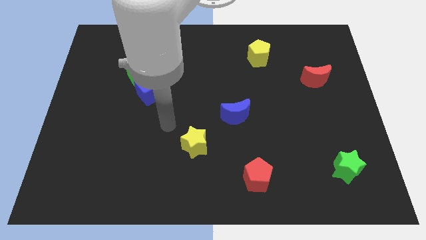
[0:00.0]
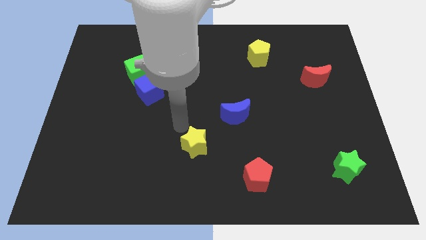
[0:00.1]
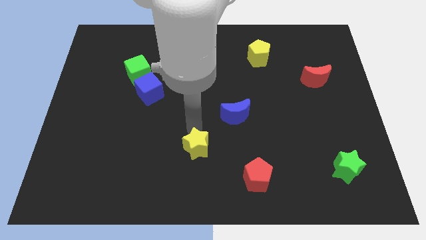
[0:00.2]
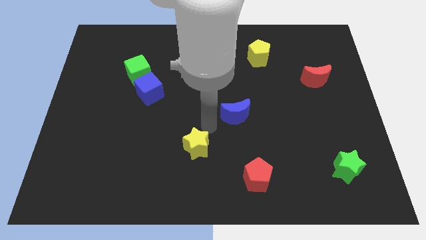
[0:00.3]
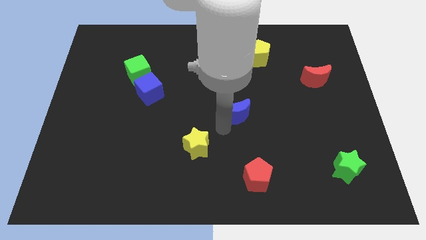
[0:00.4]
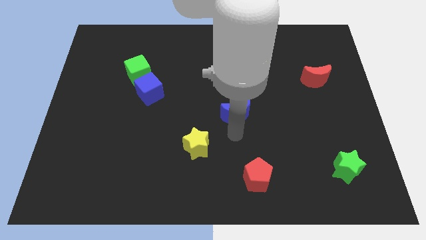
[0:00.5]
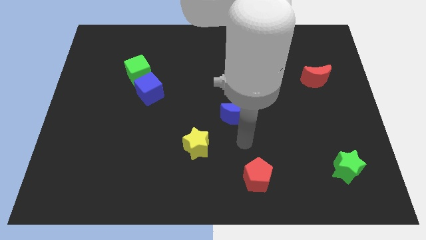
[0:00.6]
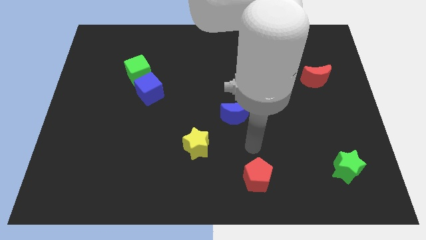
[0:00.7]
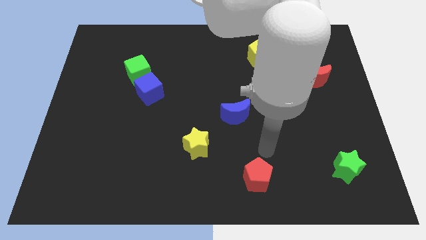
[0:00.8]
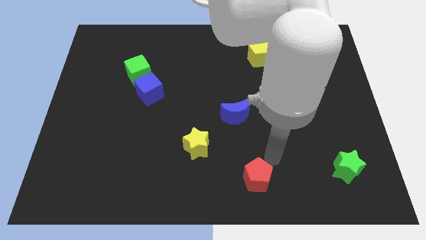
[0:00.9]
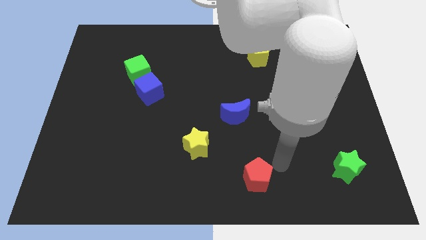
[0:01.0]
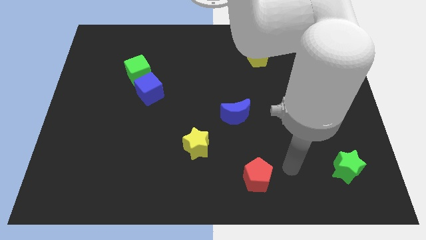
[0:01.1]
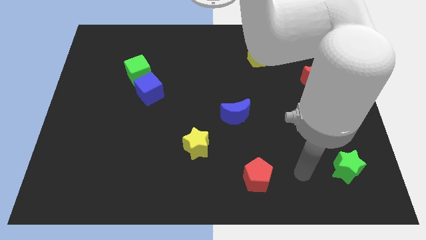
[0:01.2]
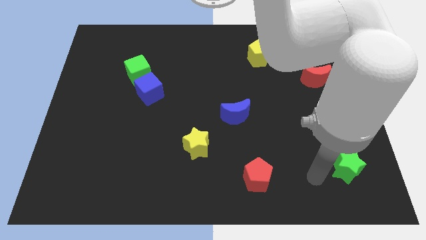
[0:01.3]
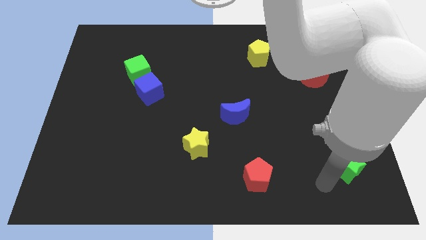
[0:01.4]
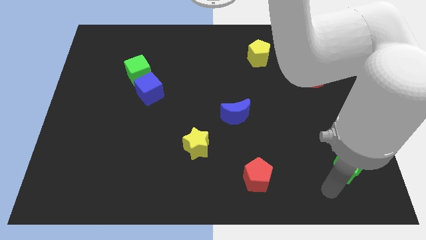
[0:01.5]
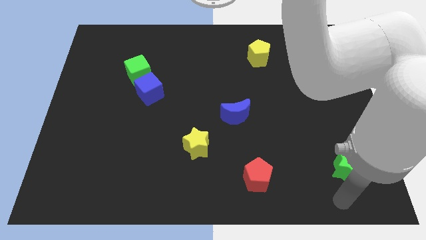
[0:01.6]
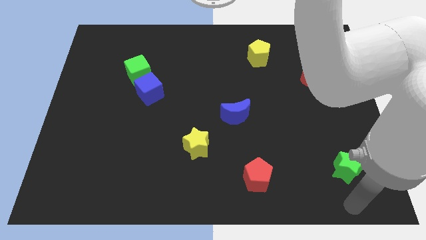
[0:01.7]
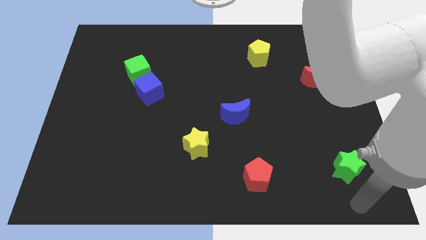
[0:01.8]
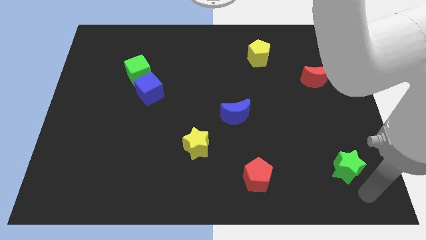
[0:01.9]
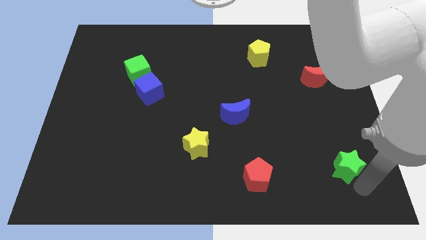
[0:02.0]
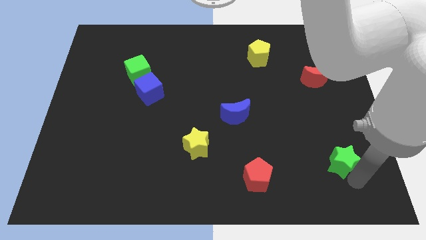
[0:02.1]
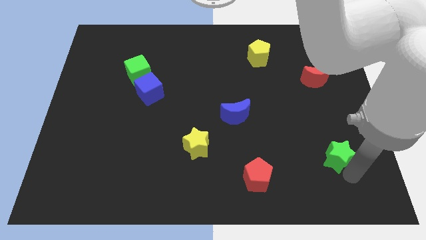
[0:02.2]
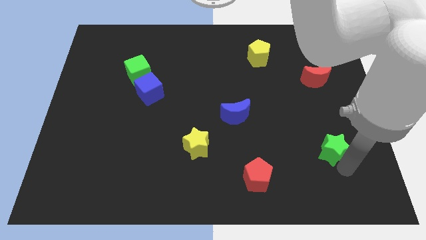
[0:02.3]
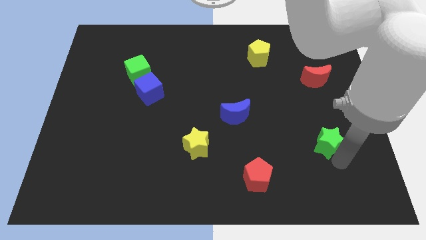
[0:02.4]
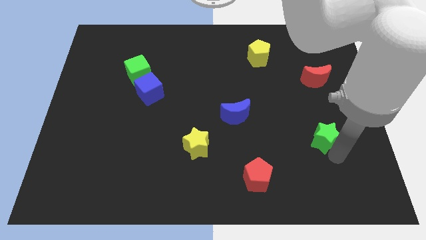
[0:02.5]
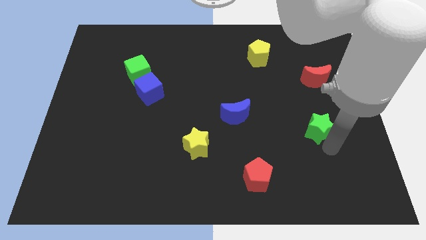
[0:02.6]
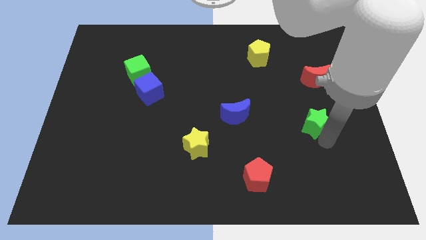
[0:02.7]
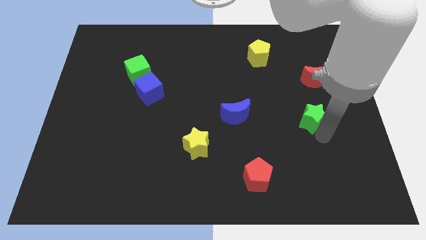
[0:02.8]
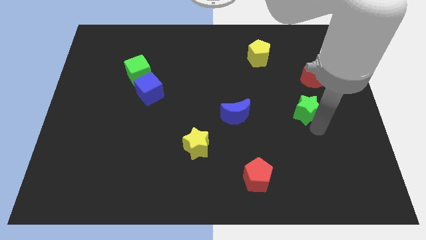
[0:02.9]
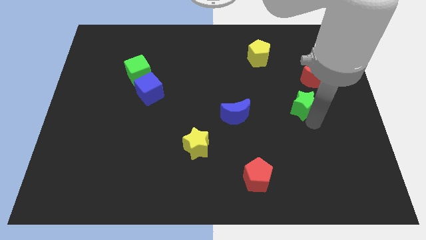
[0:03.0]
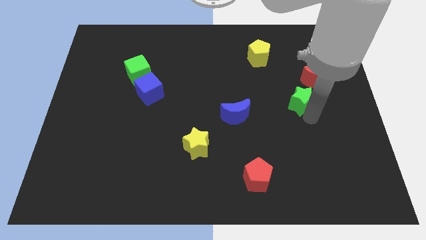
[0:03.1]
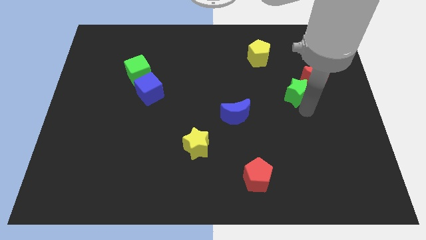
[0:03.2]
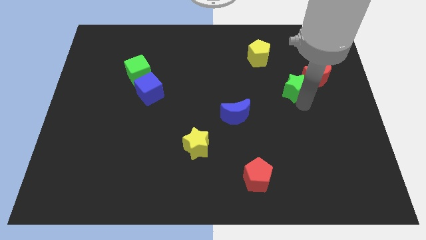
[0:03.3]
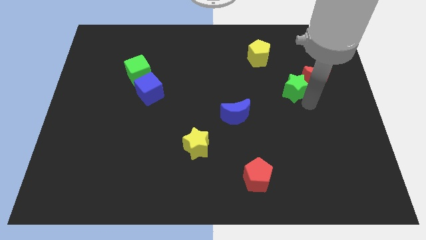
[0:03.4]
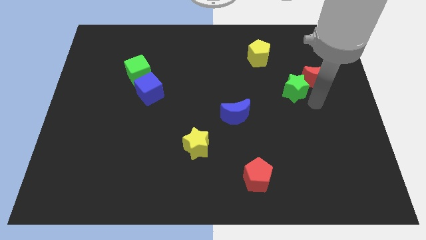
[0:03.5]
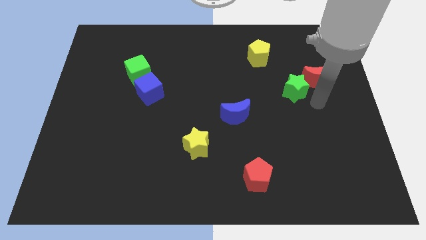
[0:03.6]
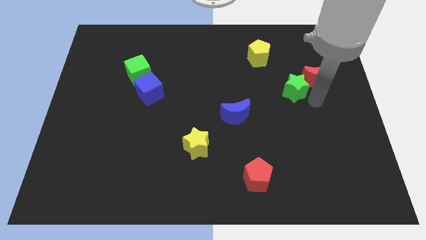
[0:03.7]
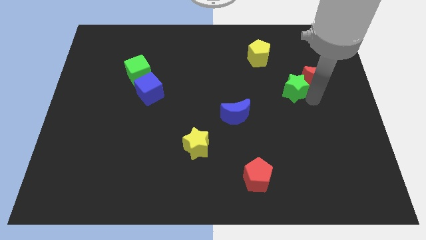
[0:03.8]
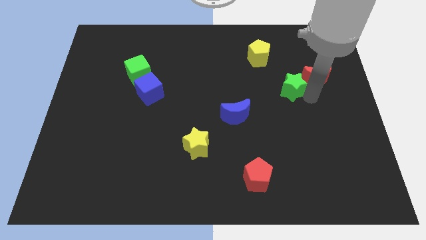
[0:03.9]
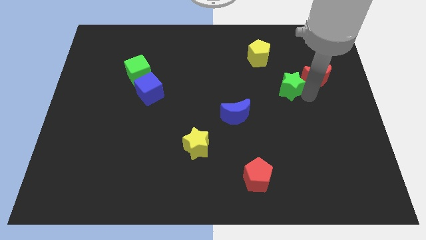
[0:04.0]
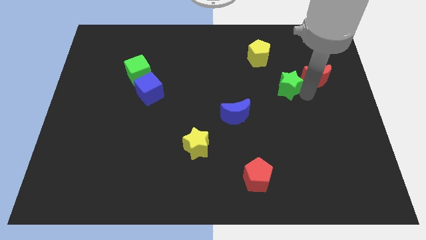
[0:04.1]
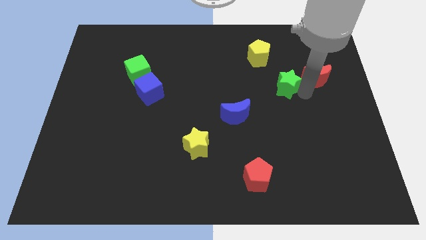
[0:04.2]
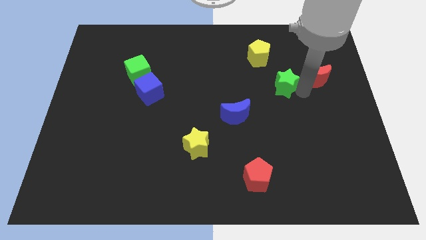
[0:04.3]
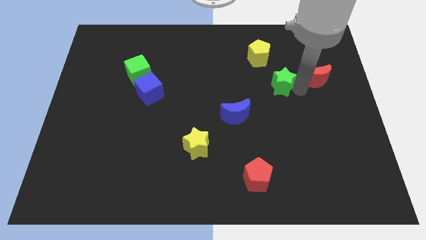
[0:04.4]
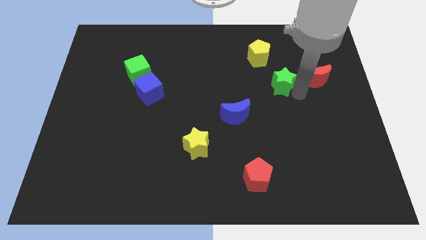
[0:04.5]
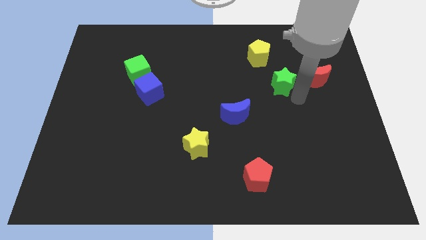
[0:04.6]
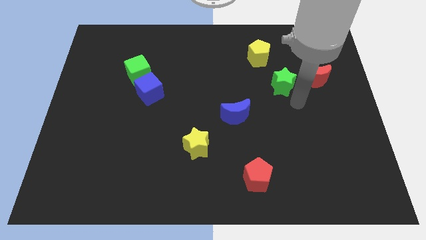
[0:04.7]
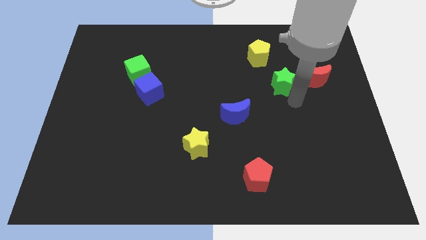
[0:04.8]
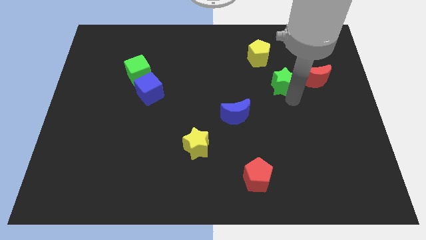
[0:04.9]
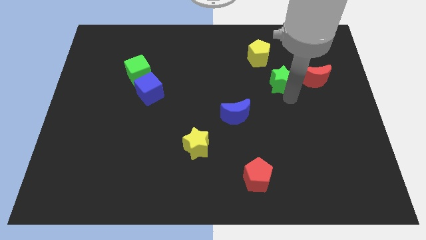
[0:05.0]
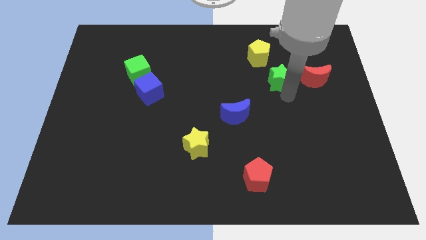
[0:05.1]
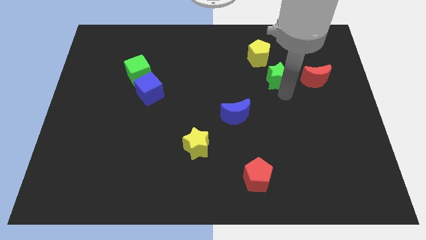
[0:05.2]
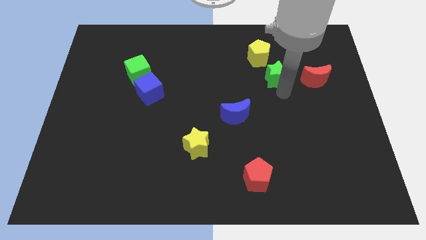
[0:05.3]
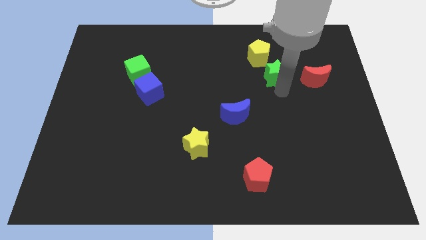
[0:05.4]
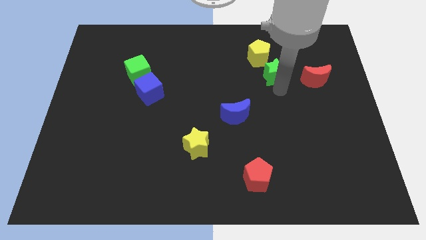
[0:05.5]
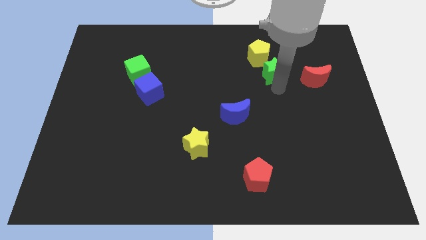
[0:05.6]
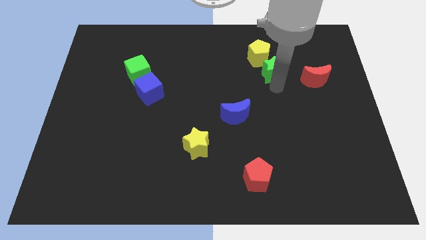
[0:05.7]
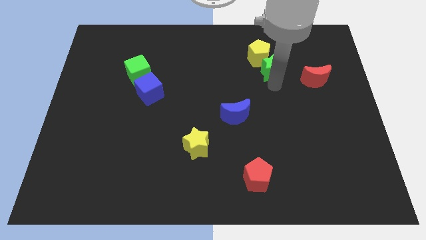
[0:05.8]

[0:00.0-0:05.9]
move the green star to the yellow pentagon

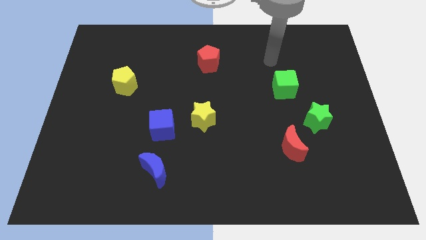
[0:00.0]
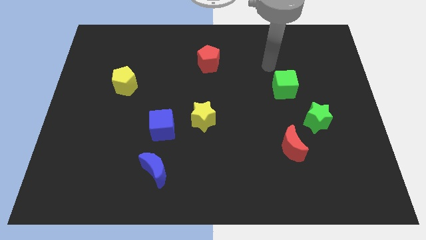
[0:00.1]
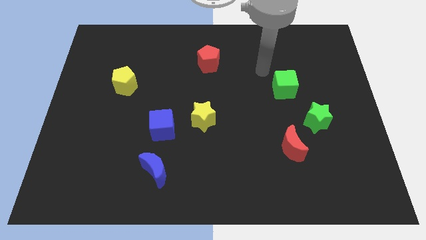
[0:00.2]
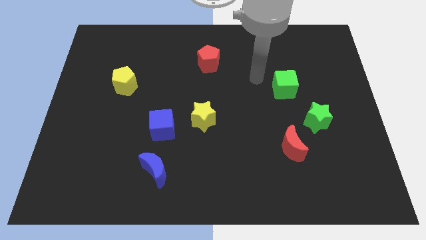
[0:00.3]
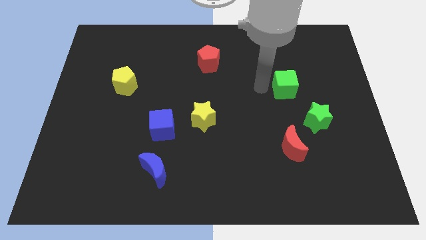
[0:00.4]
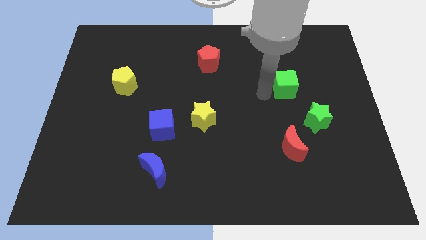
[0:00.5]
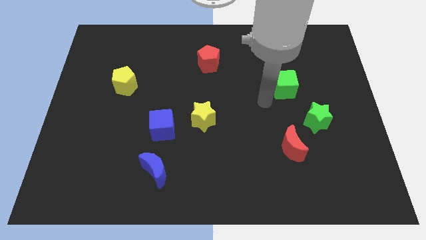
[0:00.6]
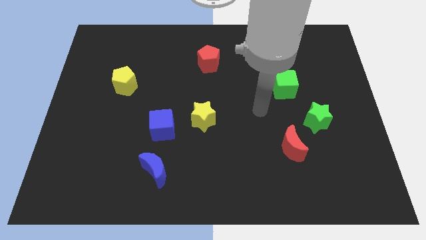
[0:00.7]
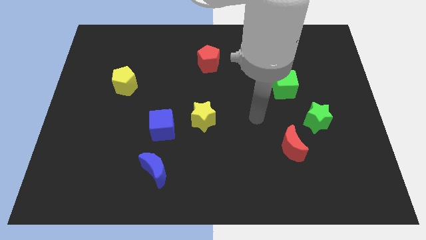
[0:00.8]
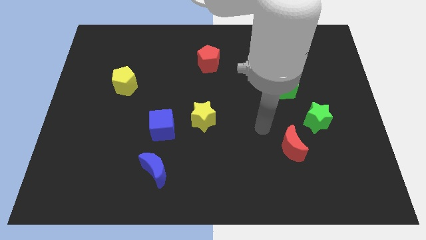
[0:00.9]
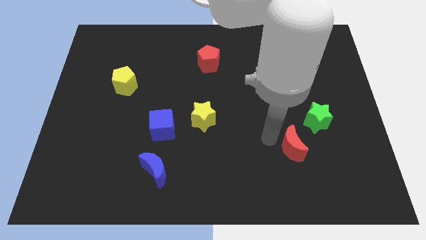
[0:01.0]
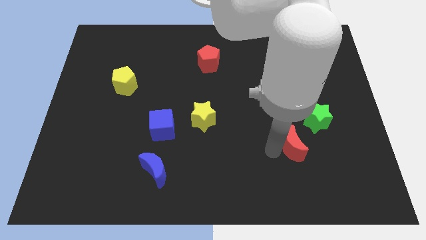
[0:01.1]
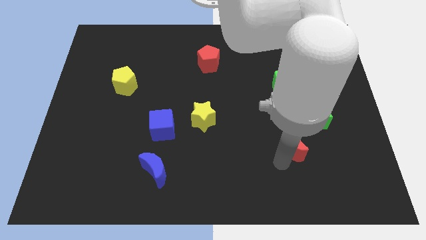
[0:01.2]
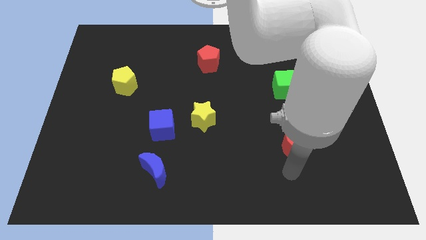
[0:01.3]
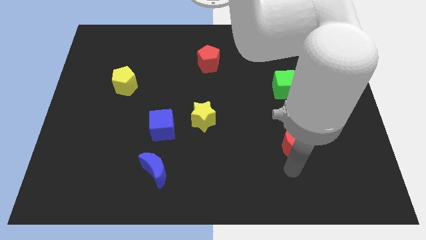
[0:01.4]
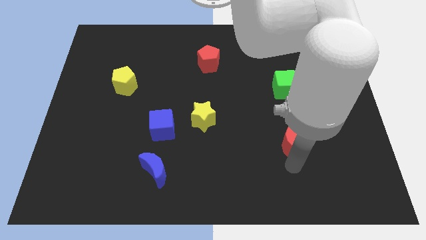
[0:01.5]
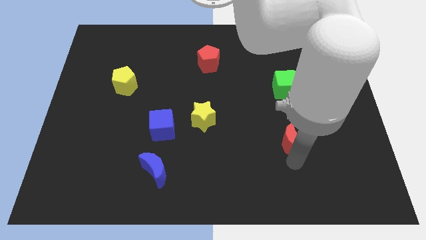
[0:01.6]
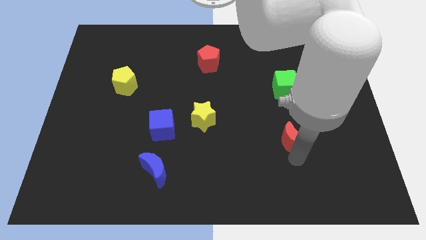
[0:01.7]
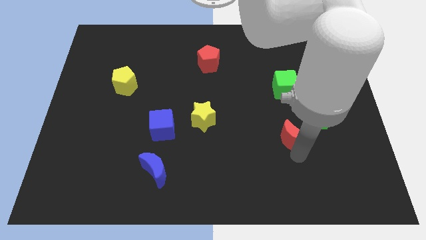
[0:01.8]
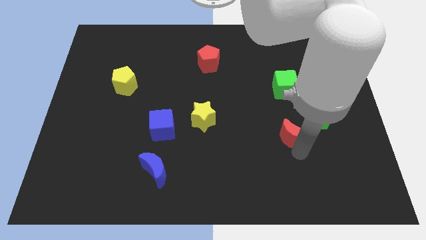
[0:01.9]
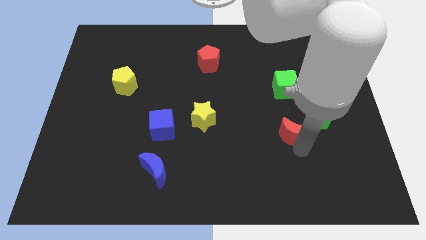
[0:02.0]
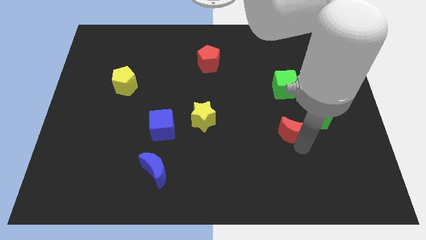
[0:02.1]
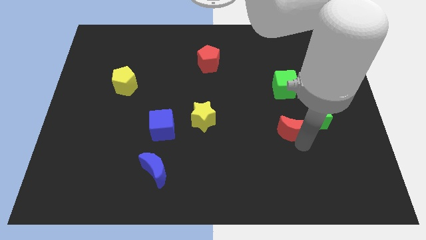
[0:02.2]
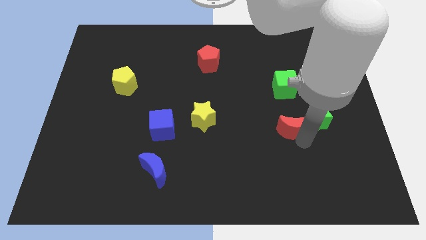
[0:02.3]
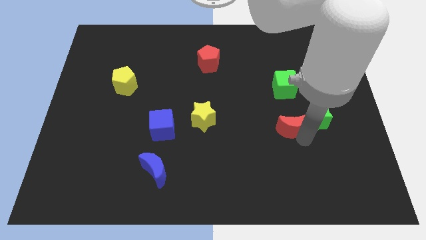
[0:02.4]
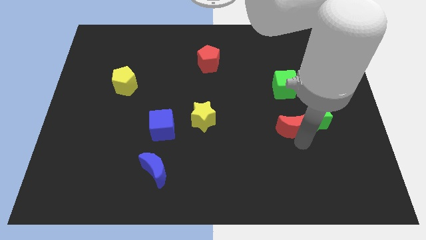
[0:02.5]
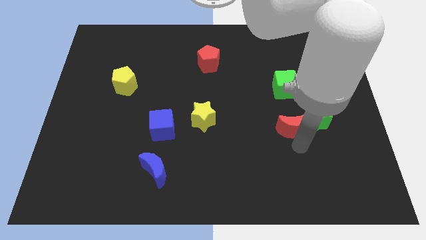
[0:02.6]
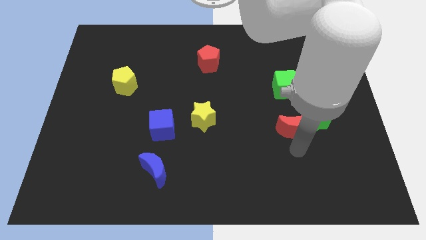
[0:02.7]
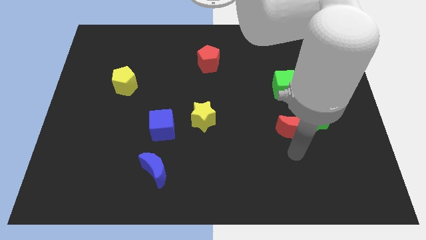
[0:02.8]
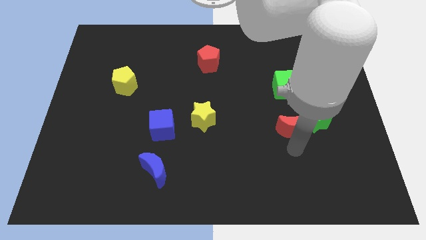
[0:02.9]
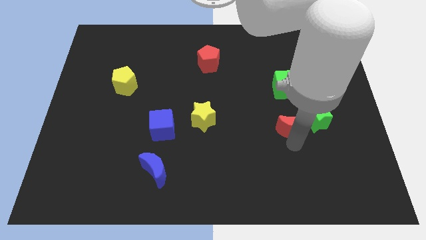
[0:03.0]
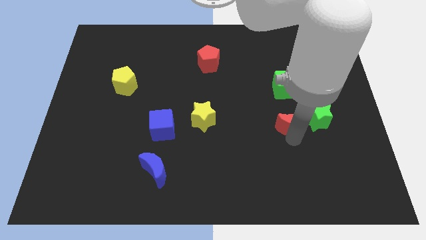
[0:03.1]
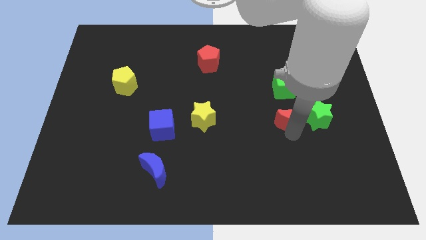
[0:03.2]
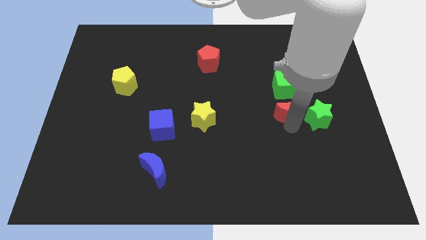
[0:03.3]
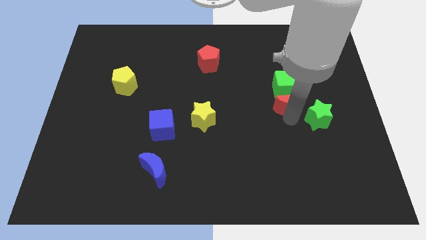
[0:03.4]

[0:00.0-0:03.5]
put the red moon to the green cube
